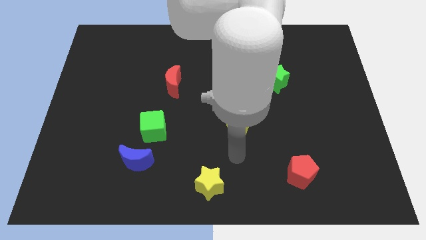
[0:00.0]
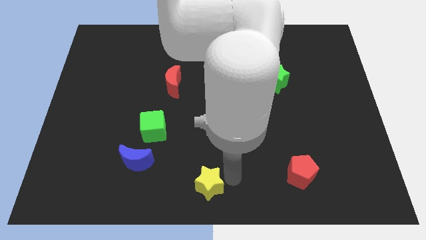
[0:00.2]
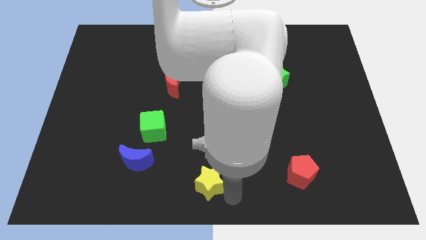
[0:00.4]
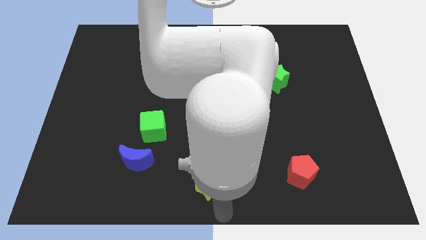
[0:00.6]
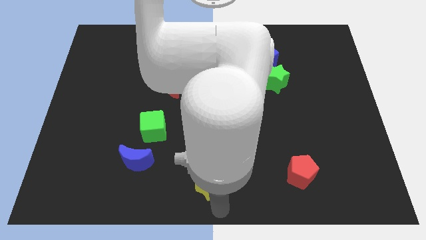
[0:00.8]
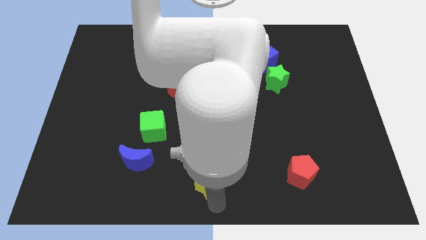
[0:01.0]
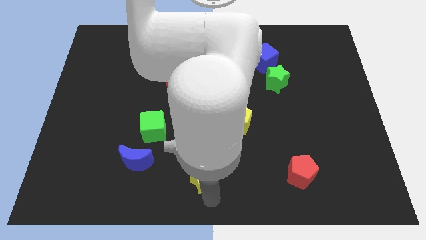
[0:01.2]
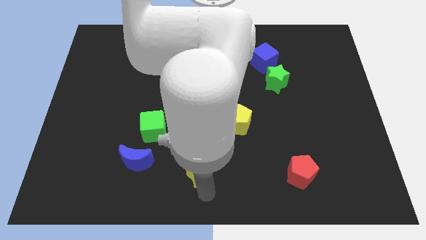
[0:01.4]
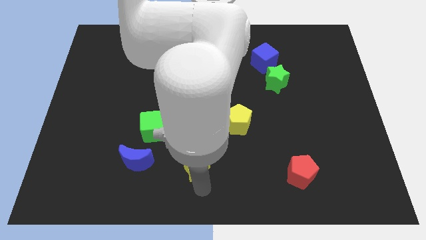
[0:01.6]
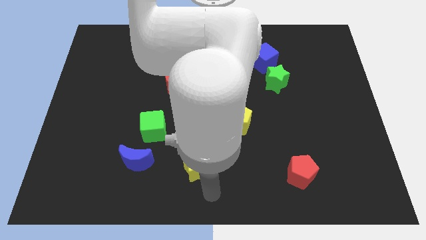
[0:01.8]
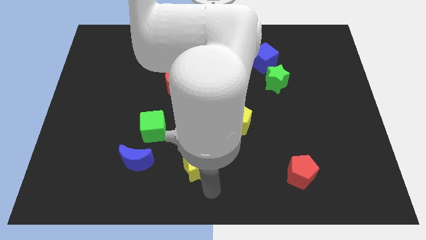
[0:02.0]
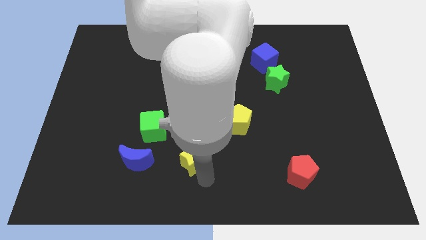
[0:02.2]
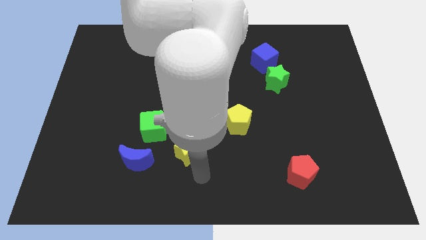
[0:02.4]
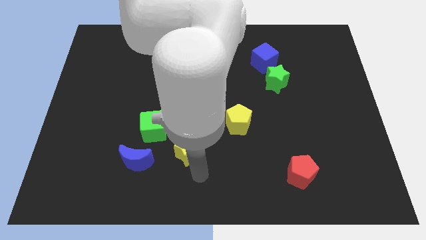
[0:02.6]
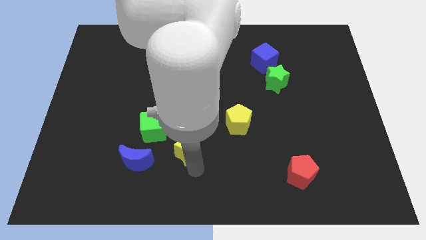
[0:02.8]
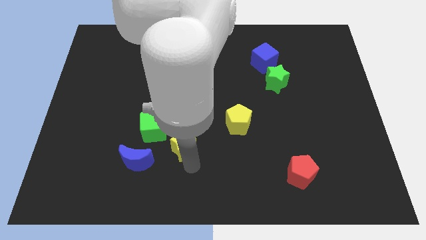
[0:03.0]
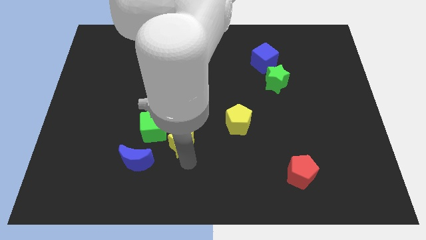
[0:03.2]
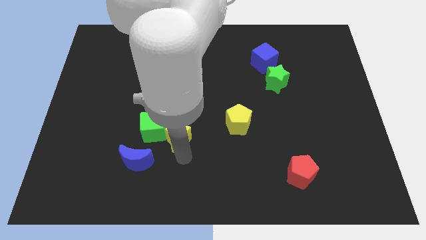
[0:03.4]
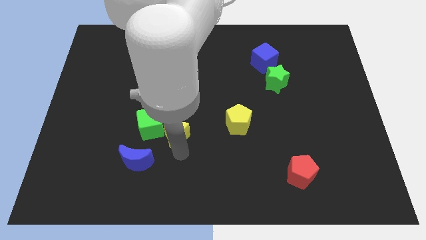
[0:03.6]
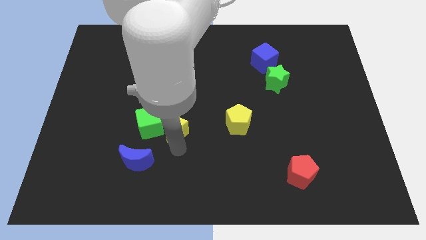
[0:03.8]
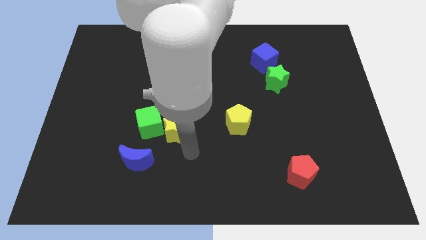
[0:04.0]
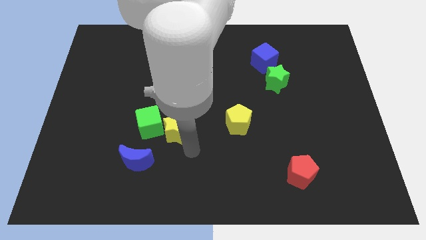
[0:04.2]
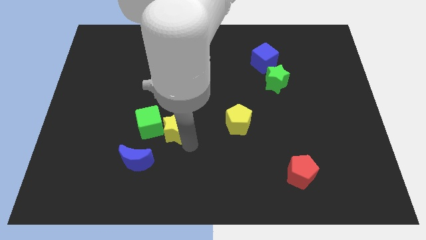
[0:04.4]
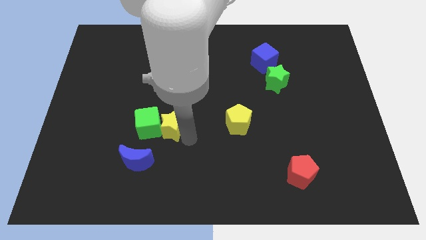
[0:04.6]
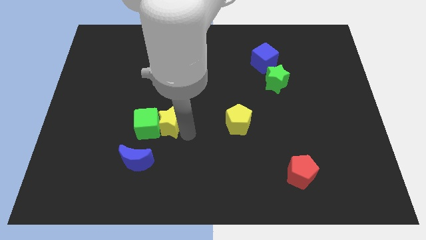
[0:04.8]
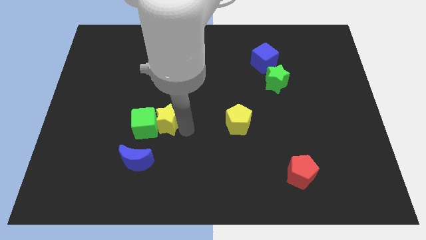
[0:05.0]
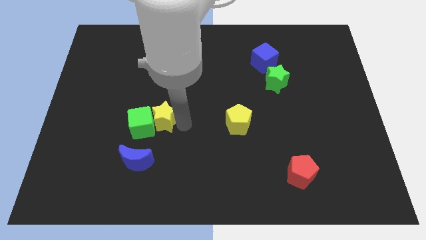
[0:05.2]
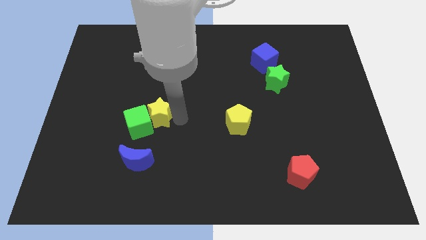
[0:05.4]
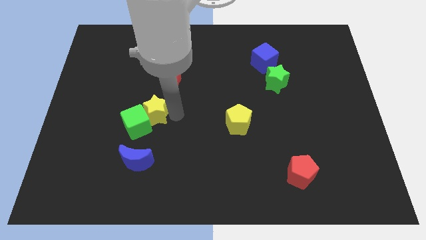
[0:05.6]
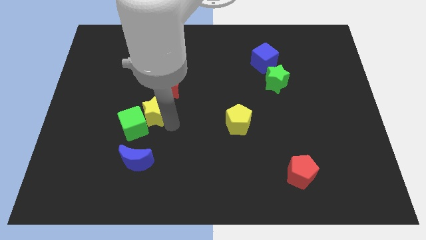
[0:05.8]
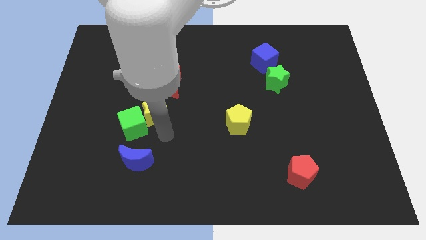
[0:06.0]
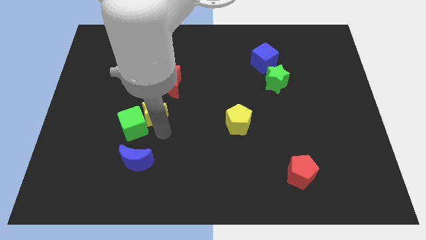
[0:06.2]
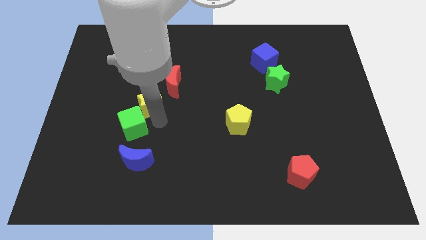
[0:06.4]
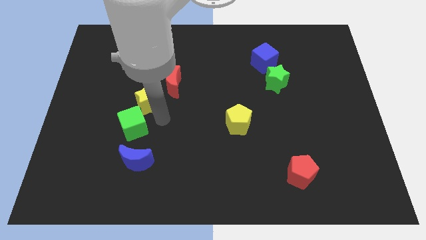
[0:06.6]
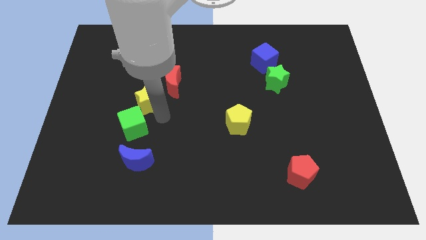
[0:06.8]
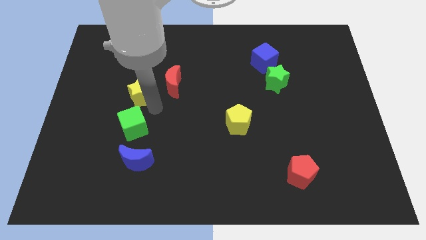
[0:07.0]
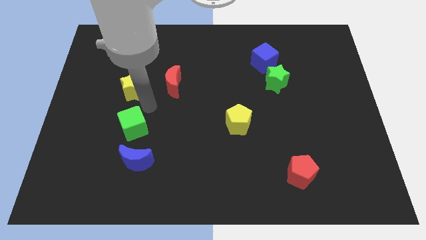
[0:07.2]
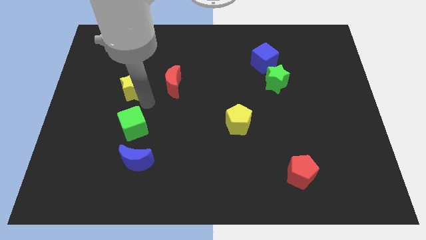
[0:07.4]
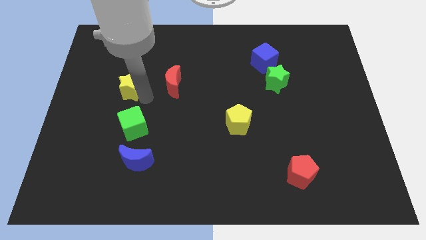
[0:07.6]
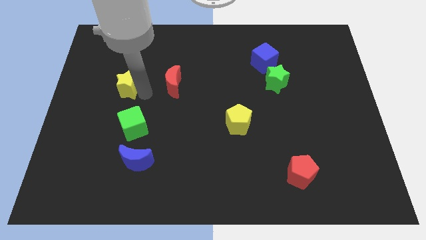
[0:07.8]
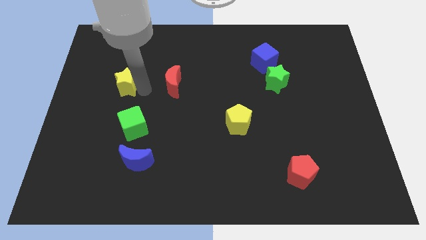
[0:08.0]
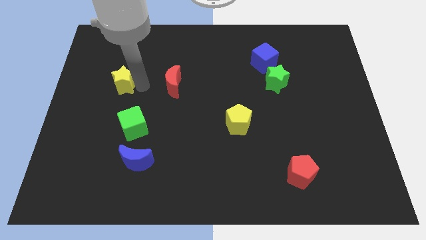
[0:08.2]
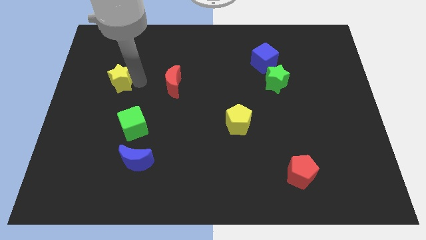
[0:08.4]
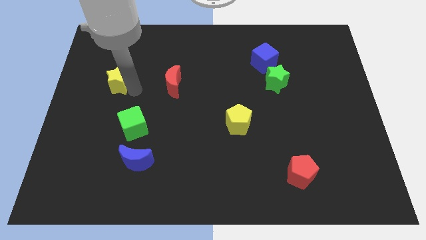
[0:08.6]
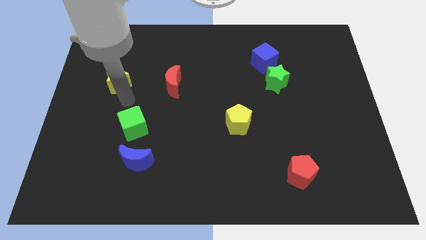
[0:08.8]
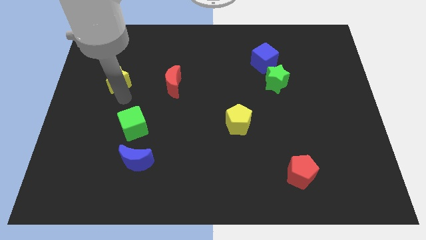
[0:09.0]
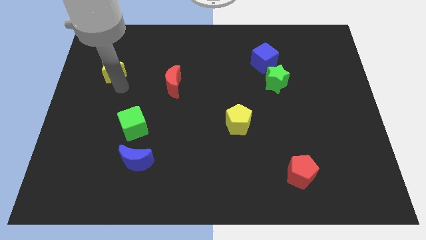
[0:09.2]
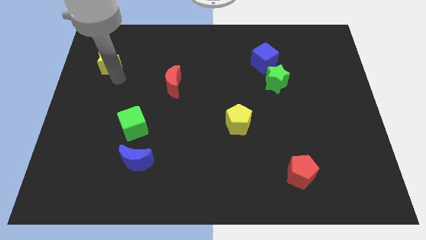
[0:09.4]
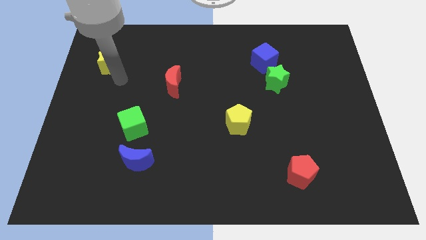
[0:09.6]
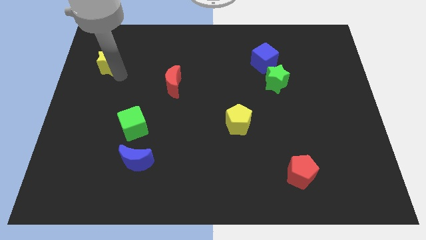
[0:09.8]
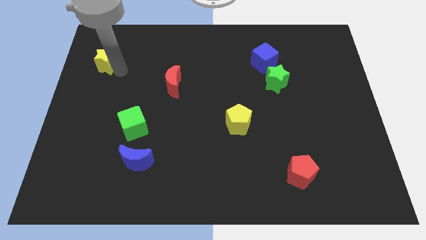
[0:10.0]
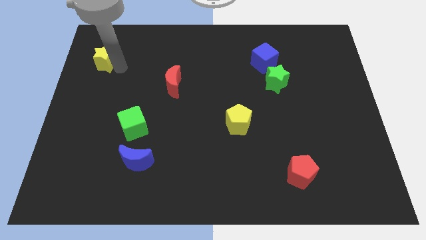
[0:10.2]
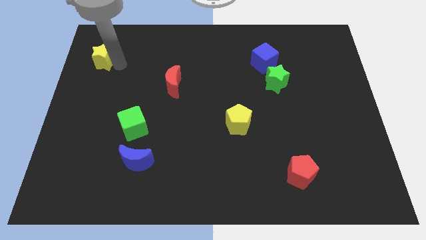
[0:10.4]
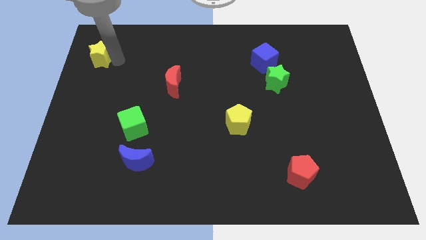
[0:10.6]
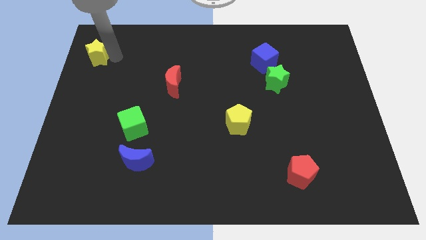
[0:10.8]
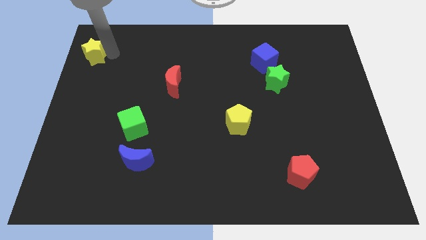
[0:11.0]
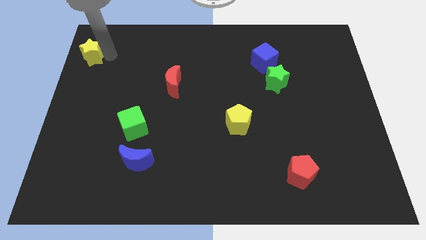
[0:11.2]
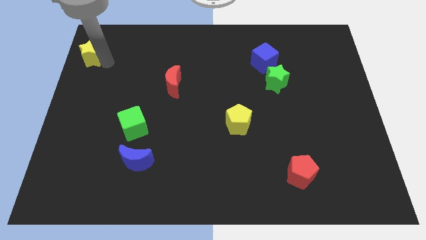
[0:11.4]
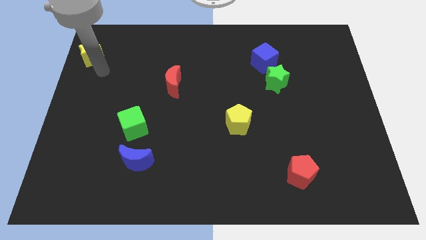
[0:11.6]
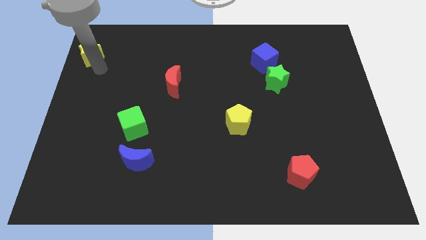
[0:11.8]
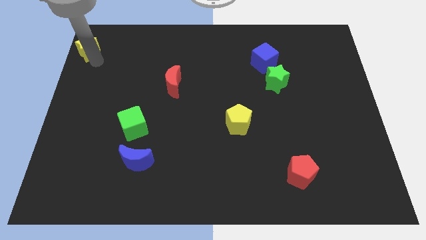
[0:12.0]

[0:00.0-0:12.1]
push the yellow star to the top left corner
